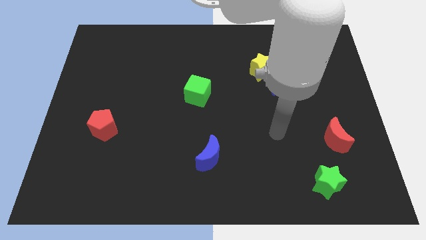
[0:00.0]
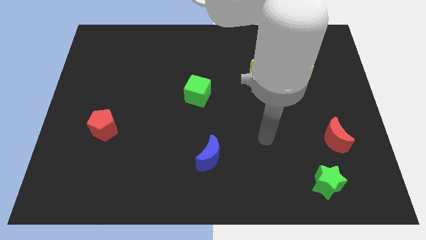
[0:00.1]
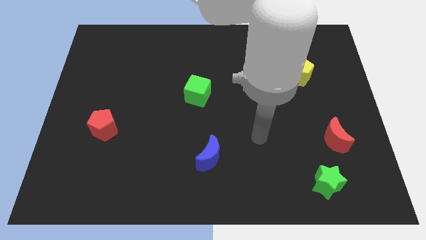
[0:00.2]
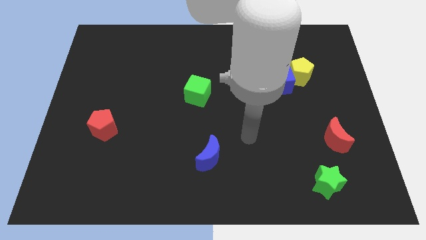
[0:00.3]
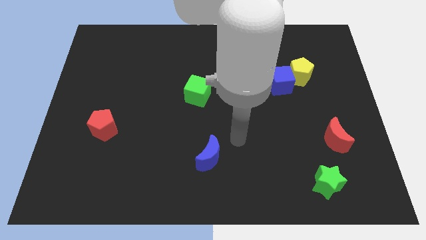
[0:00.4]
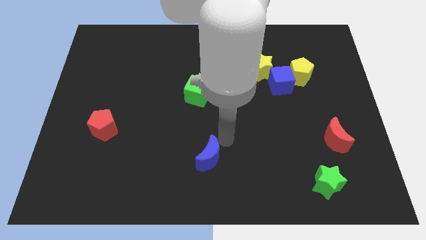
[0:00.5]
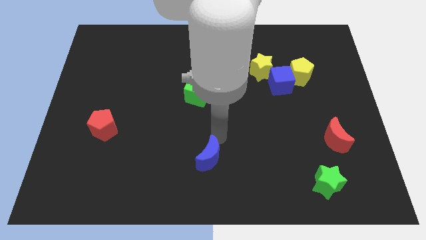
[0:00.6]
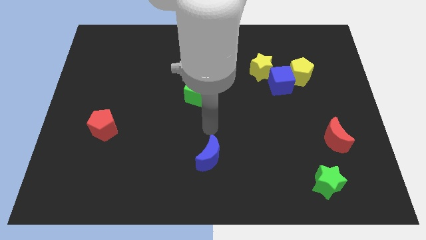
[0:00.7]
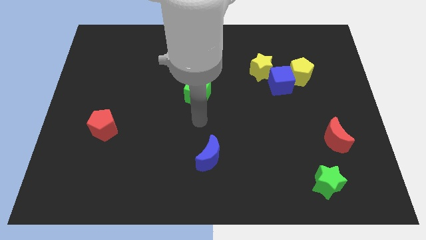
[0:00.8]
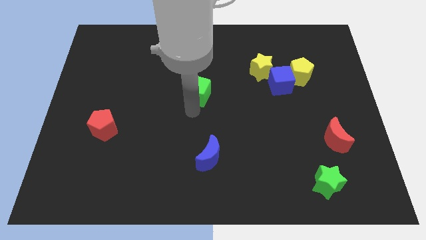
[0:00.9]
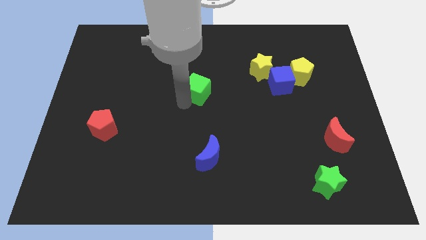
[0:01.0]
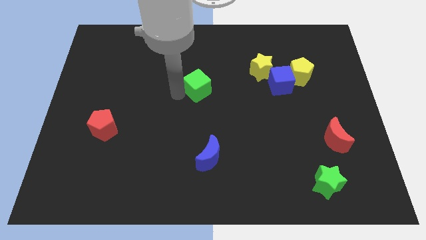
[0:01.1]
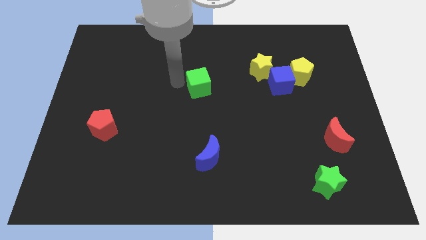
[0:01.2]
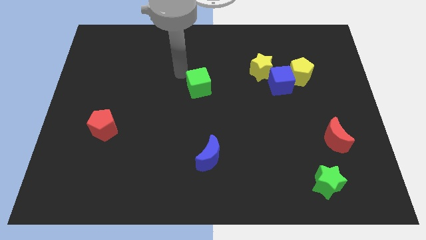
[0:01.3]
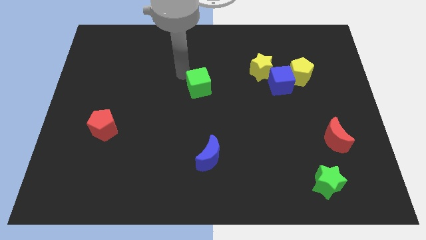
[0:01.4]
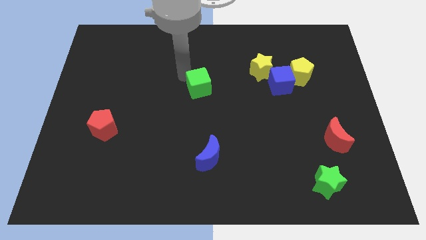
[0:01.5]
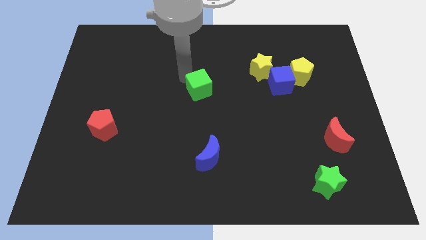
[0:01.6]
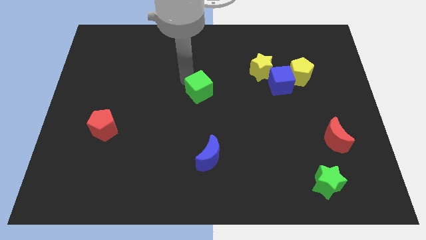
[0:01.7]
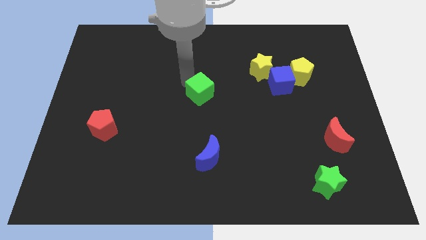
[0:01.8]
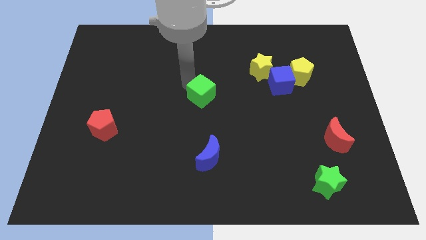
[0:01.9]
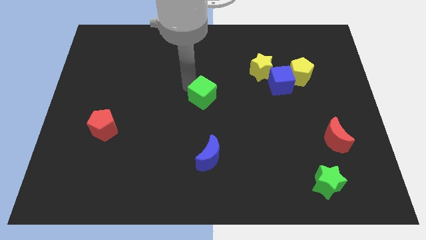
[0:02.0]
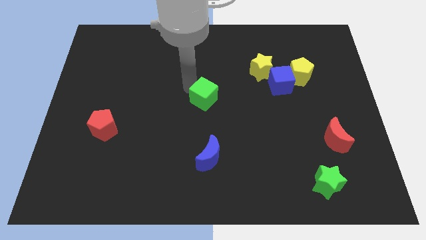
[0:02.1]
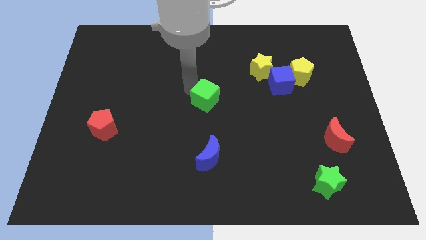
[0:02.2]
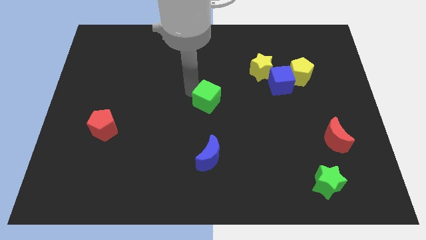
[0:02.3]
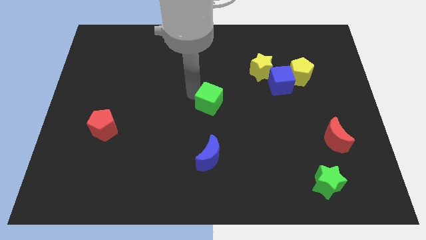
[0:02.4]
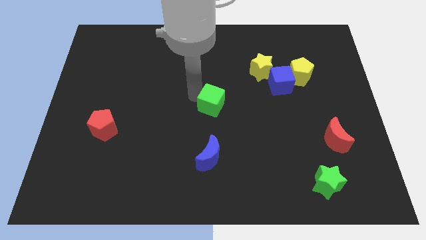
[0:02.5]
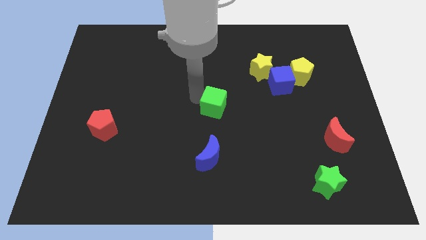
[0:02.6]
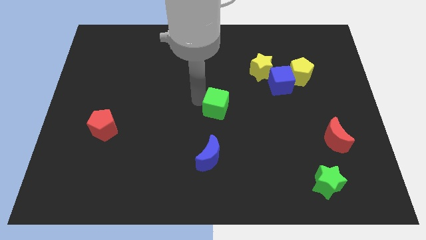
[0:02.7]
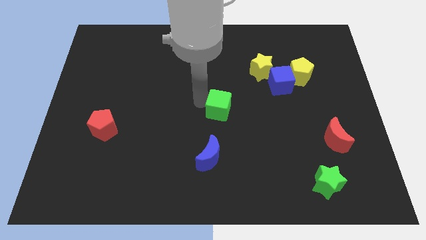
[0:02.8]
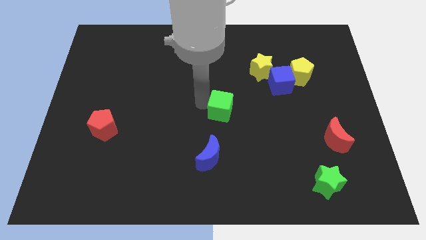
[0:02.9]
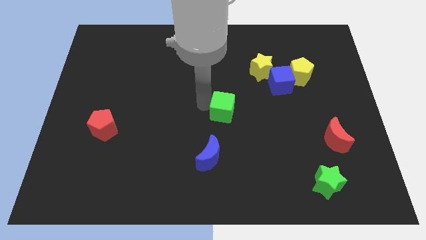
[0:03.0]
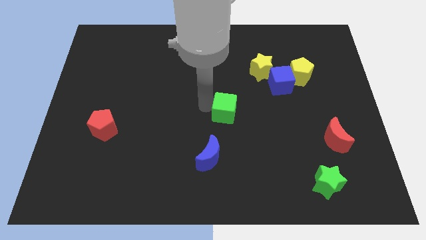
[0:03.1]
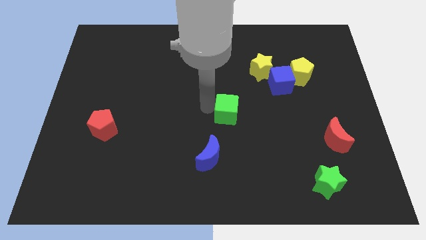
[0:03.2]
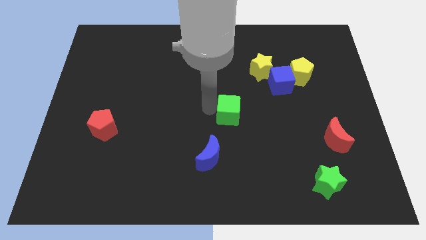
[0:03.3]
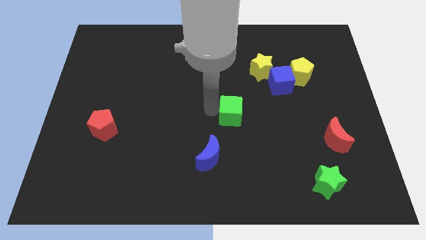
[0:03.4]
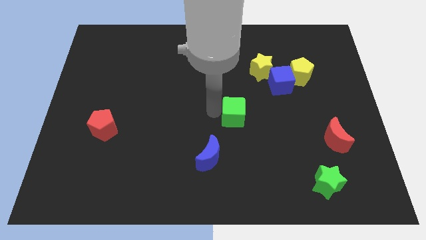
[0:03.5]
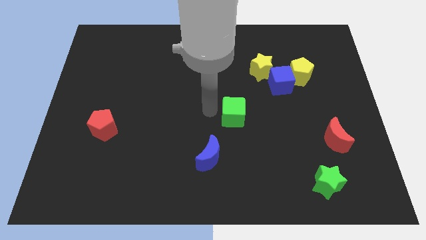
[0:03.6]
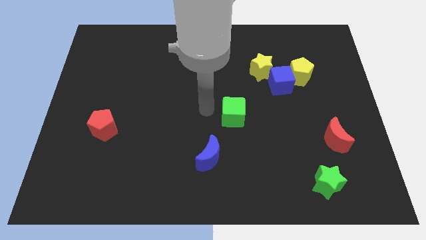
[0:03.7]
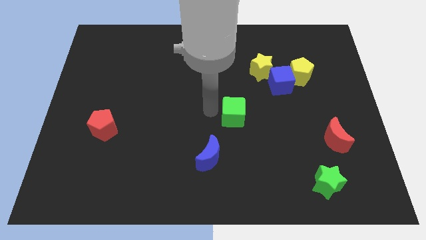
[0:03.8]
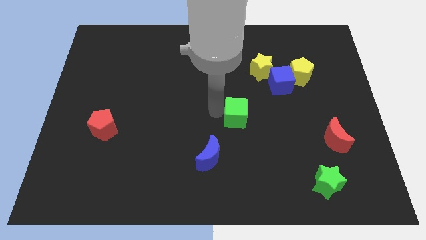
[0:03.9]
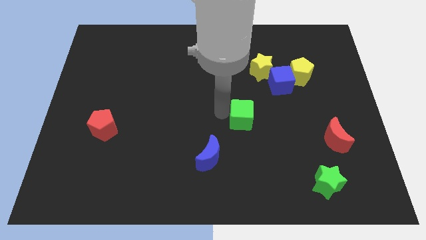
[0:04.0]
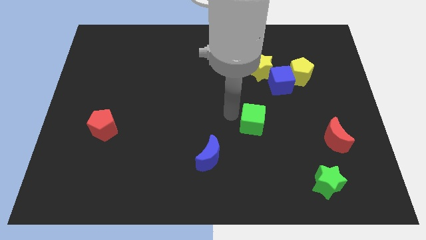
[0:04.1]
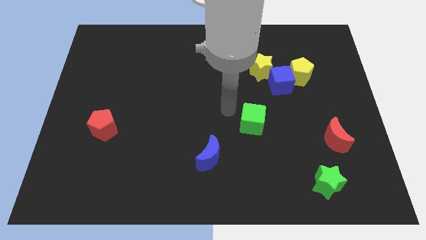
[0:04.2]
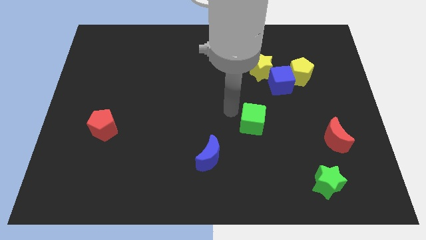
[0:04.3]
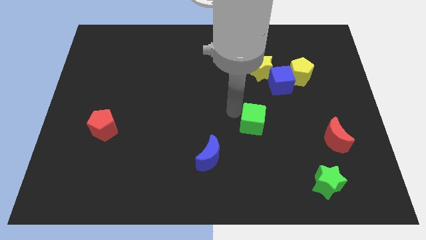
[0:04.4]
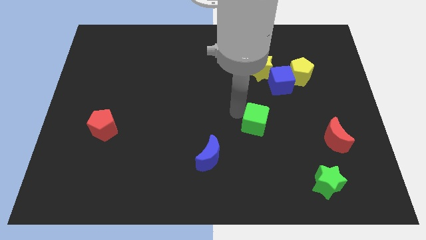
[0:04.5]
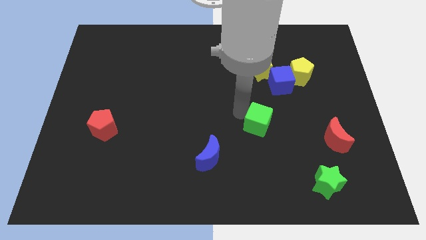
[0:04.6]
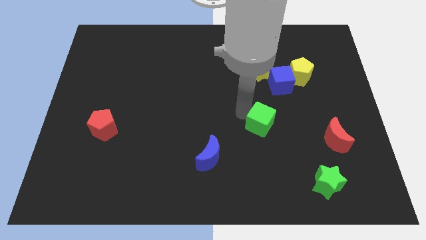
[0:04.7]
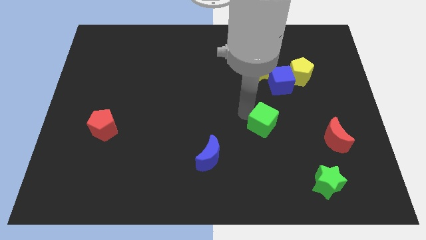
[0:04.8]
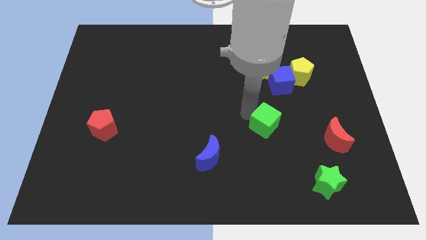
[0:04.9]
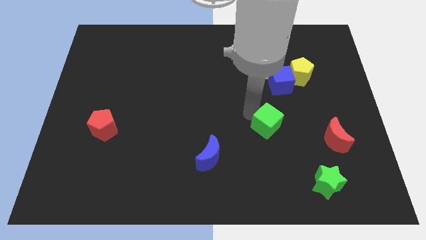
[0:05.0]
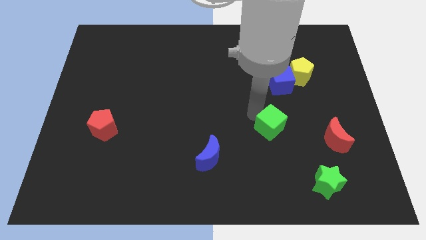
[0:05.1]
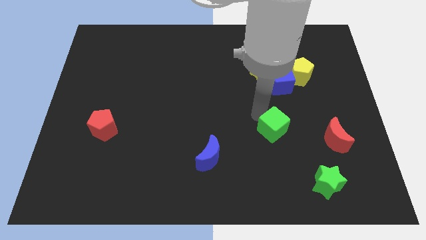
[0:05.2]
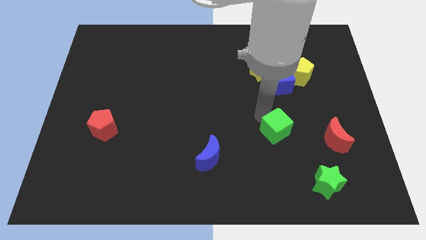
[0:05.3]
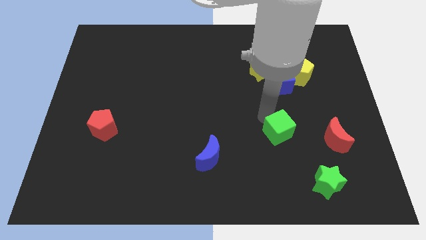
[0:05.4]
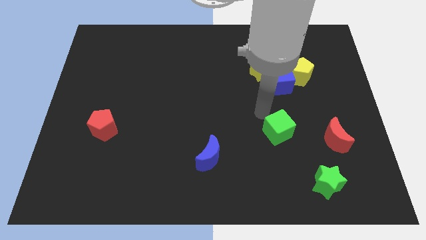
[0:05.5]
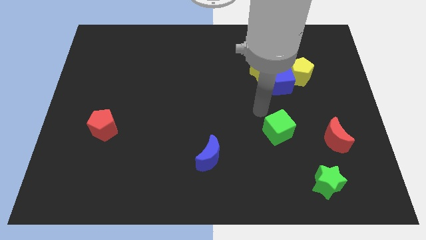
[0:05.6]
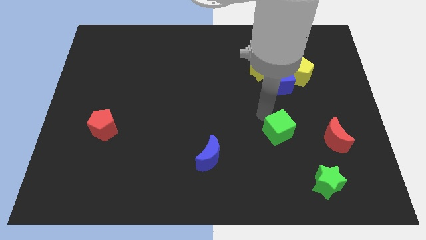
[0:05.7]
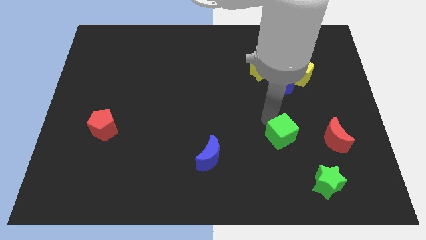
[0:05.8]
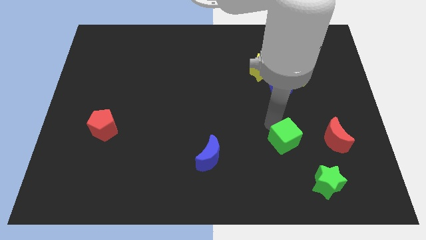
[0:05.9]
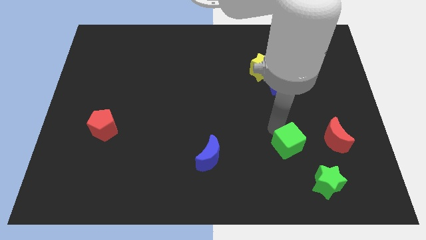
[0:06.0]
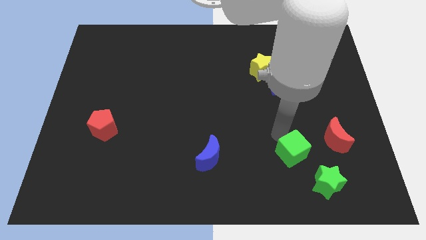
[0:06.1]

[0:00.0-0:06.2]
push the green cube to the bottom left of the red moon

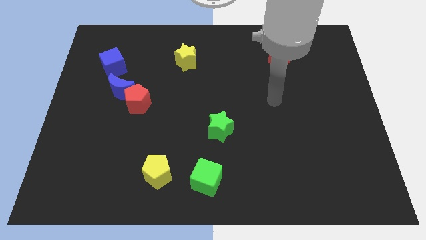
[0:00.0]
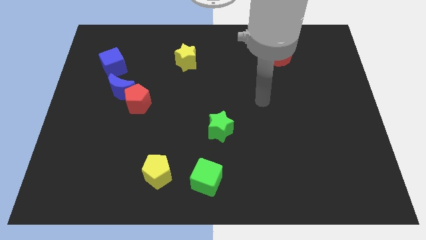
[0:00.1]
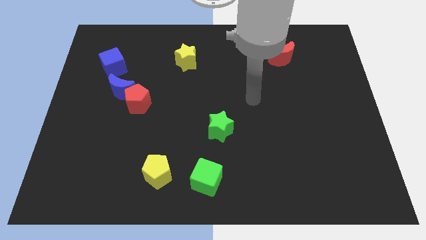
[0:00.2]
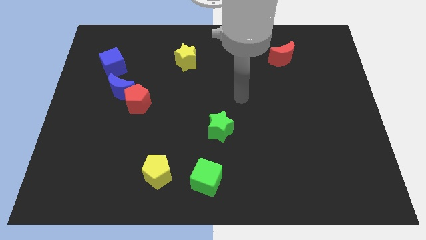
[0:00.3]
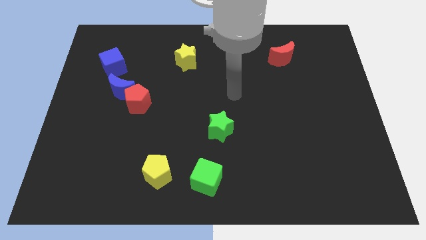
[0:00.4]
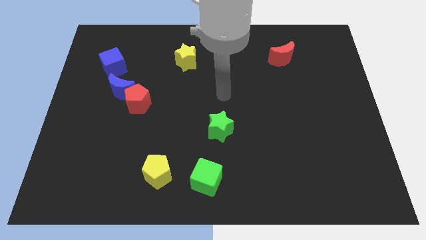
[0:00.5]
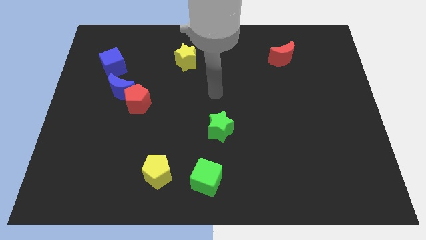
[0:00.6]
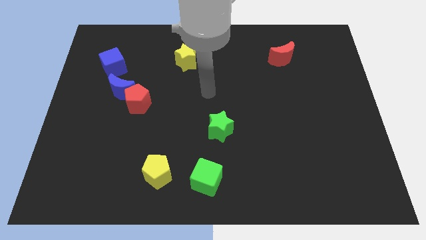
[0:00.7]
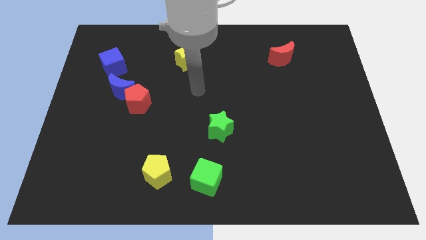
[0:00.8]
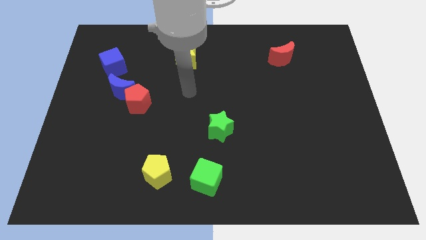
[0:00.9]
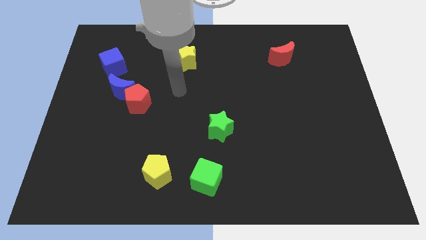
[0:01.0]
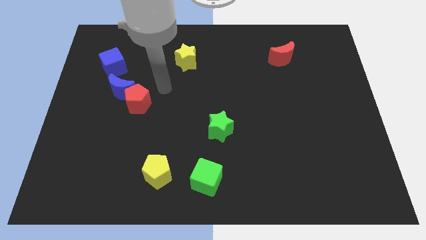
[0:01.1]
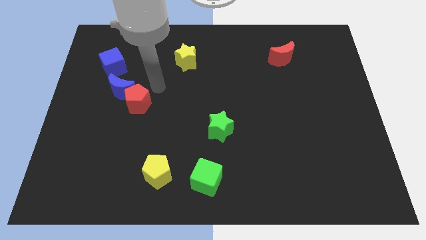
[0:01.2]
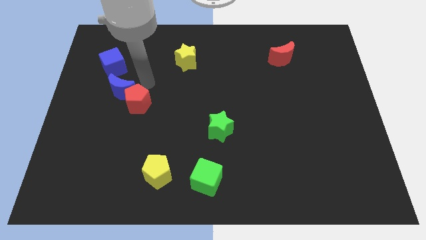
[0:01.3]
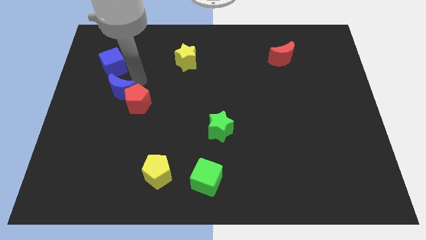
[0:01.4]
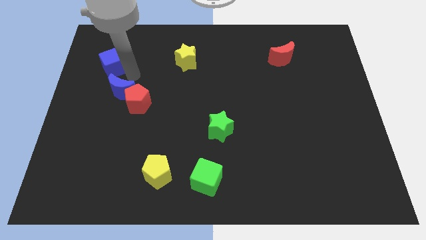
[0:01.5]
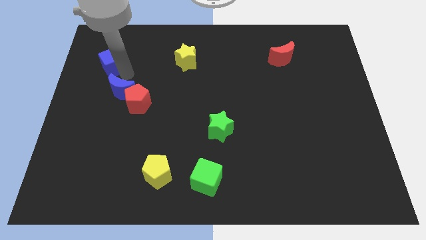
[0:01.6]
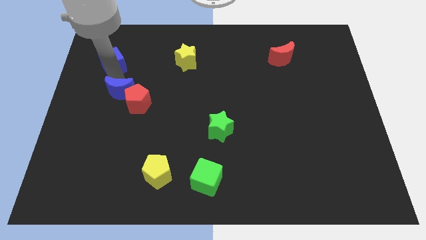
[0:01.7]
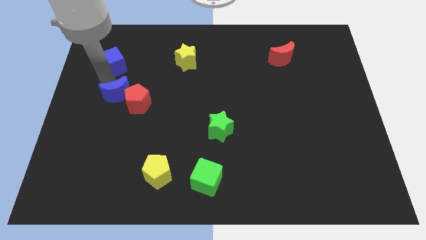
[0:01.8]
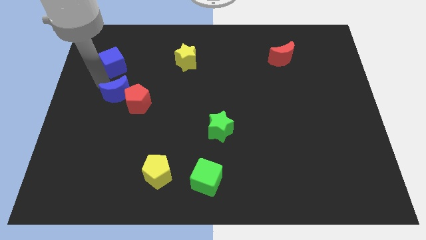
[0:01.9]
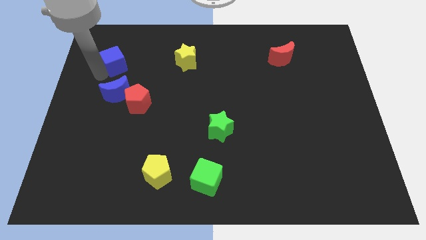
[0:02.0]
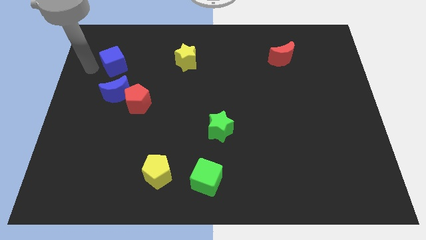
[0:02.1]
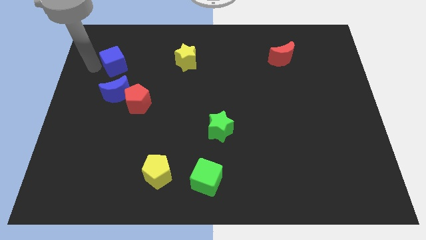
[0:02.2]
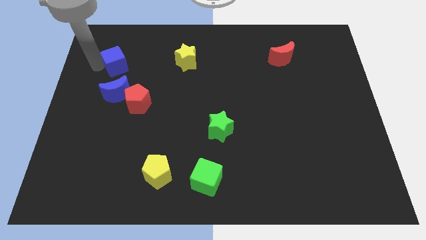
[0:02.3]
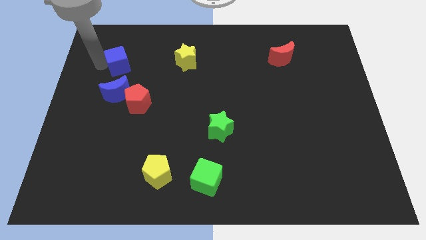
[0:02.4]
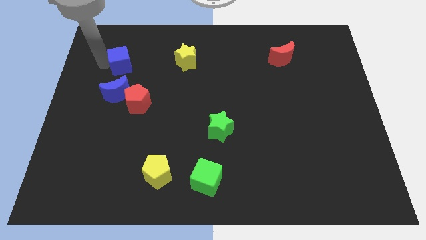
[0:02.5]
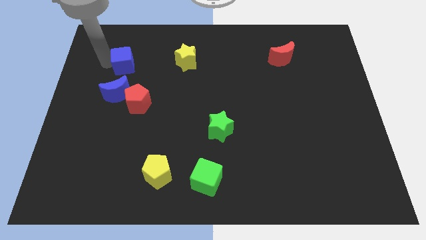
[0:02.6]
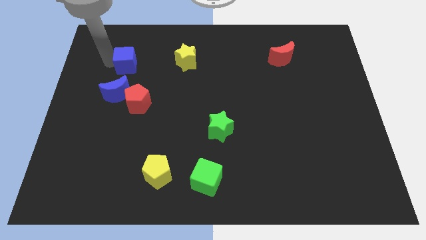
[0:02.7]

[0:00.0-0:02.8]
move the blue cube left of the yellow star
